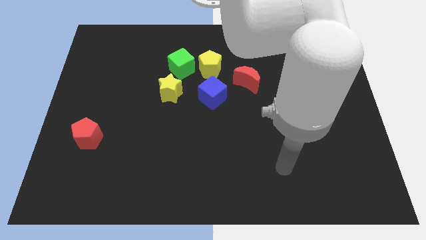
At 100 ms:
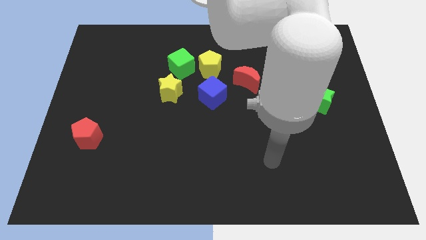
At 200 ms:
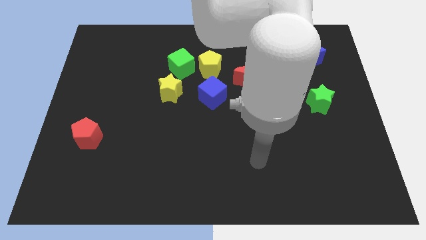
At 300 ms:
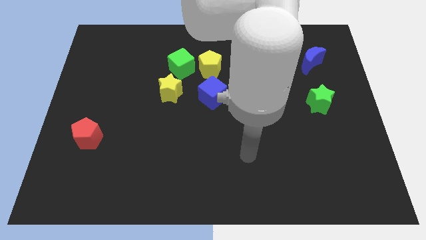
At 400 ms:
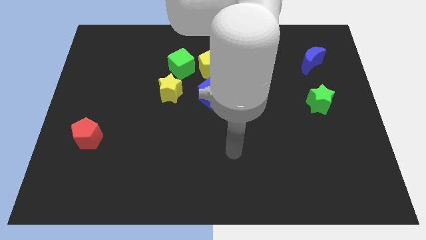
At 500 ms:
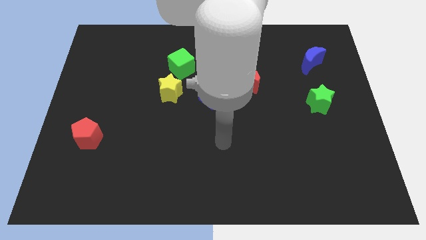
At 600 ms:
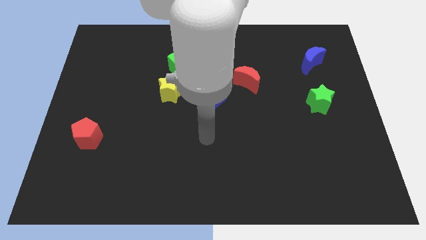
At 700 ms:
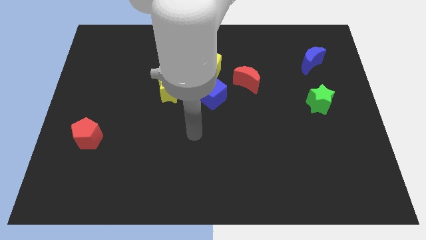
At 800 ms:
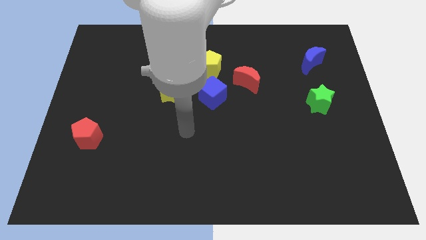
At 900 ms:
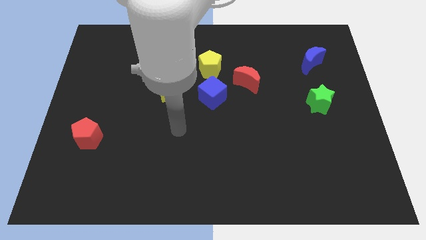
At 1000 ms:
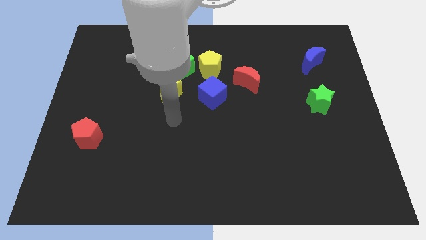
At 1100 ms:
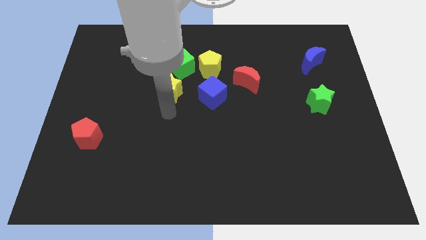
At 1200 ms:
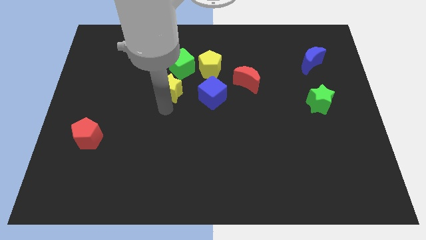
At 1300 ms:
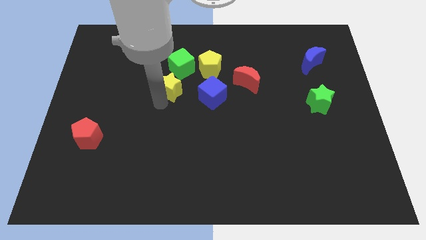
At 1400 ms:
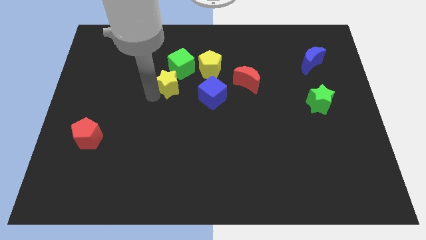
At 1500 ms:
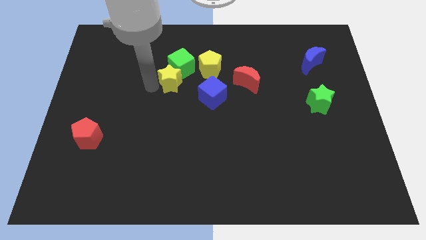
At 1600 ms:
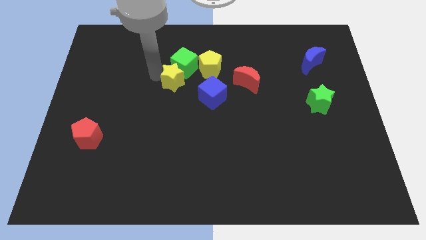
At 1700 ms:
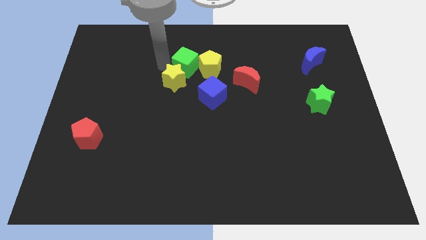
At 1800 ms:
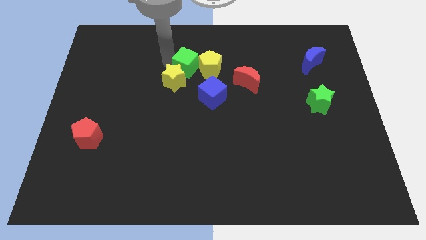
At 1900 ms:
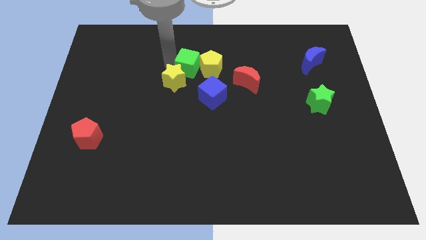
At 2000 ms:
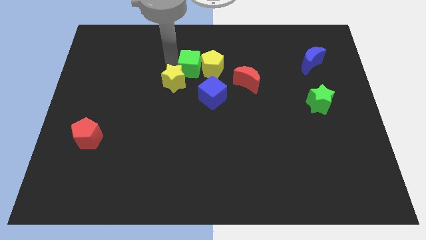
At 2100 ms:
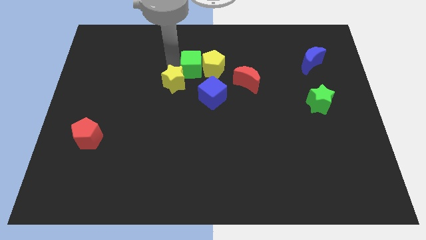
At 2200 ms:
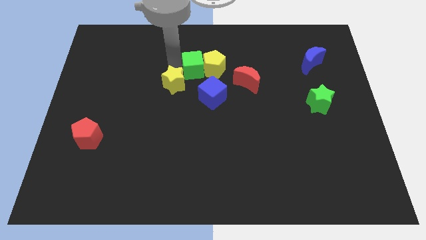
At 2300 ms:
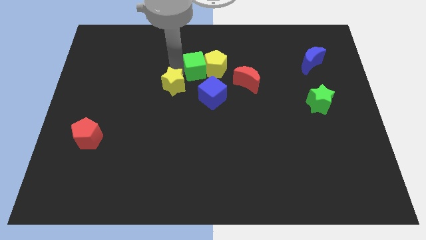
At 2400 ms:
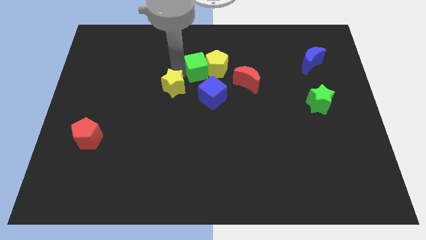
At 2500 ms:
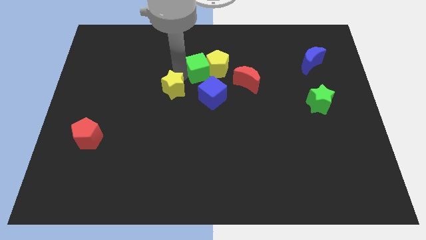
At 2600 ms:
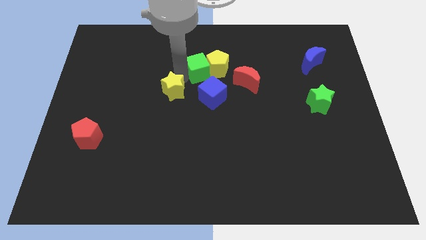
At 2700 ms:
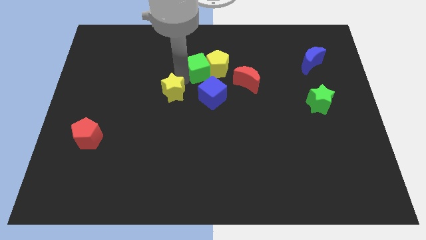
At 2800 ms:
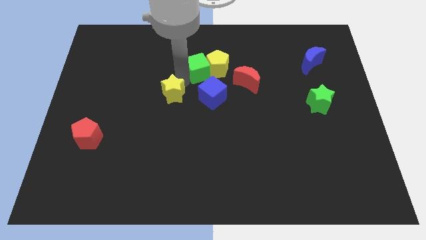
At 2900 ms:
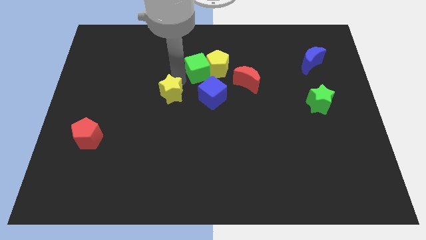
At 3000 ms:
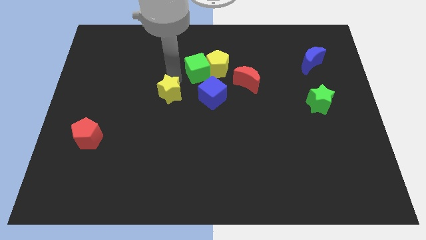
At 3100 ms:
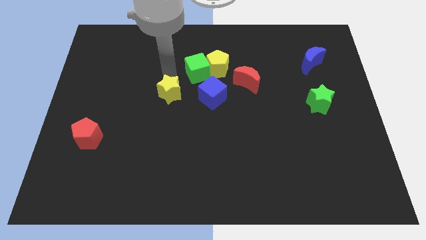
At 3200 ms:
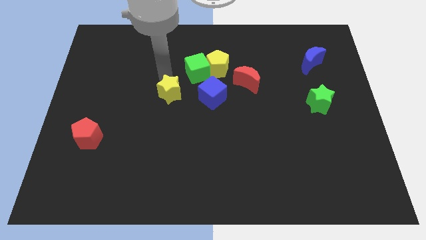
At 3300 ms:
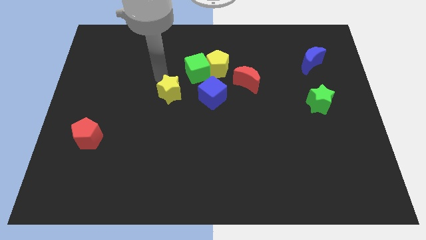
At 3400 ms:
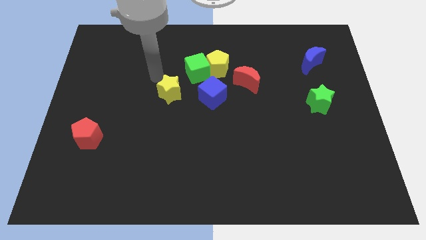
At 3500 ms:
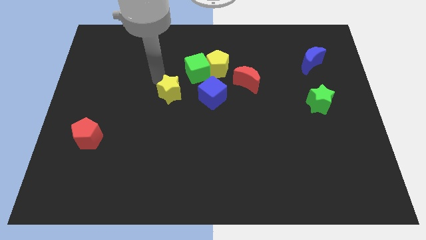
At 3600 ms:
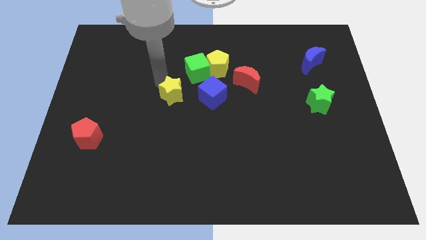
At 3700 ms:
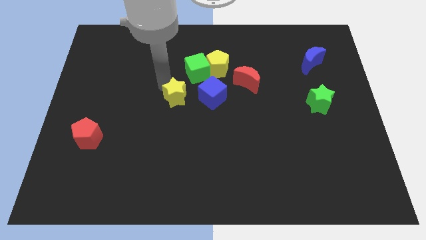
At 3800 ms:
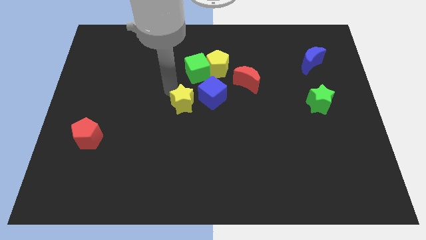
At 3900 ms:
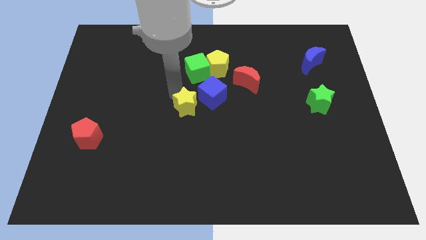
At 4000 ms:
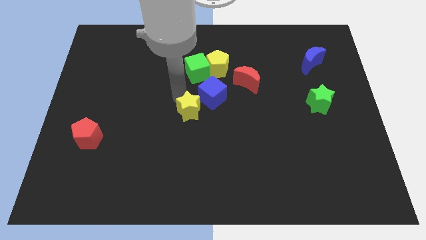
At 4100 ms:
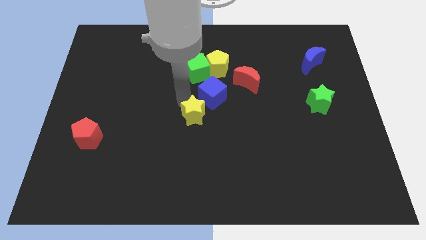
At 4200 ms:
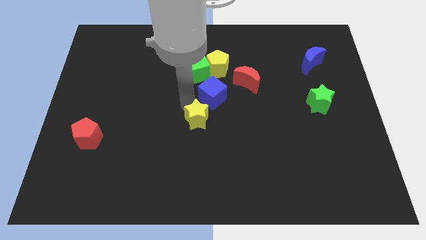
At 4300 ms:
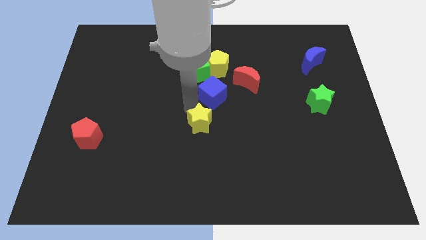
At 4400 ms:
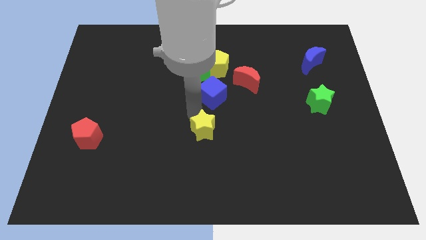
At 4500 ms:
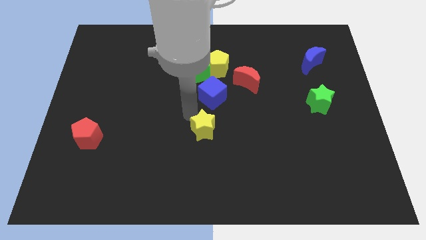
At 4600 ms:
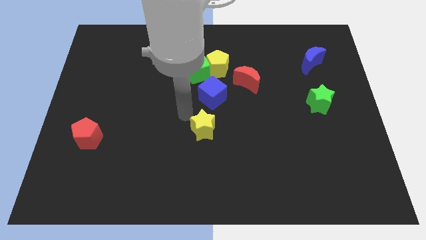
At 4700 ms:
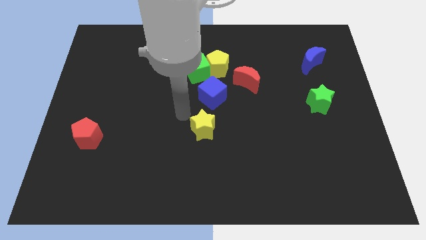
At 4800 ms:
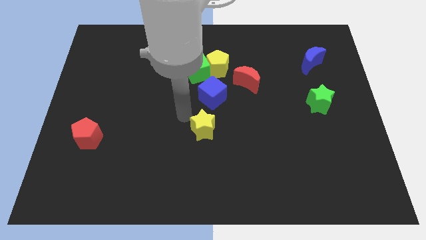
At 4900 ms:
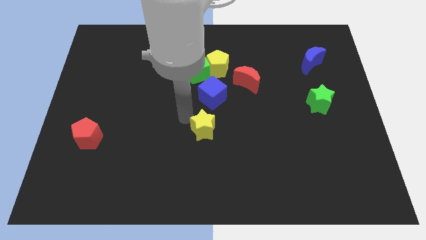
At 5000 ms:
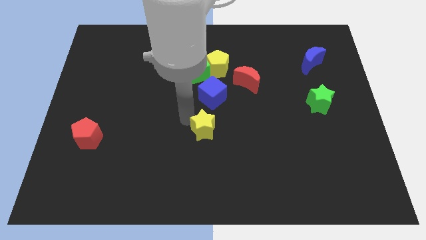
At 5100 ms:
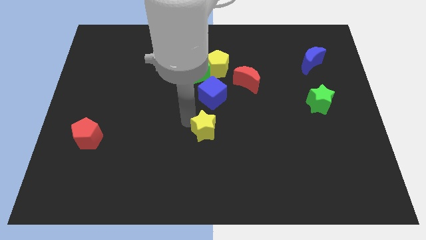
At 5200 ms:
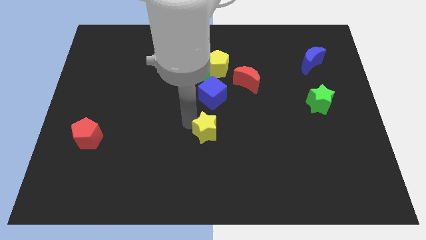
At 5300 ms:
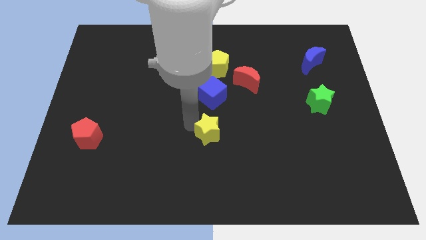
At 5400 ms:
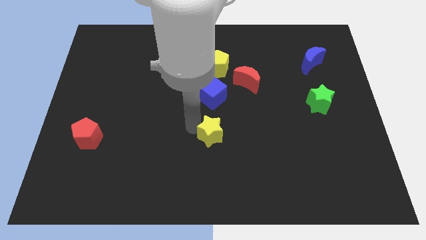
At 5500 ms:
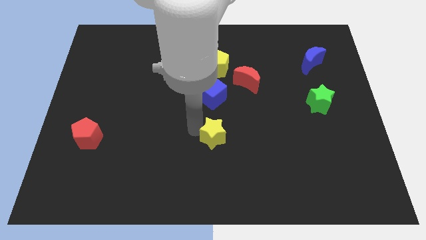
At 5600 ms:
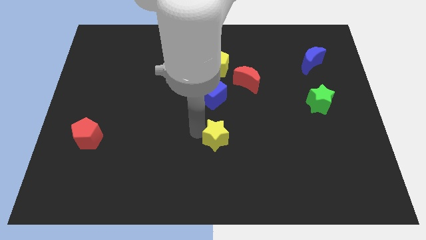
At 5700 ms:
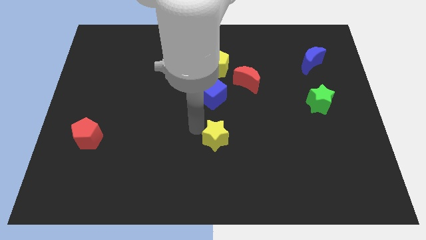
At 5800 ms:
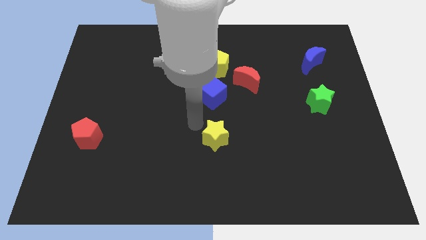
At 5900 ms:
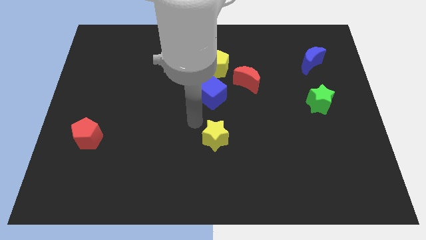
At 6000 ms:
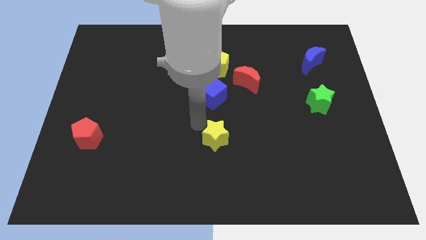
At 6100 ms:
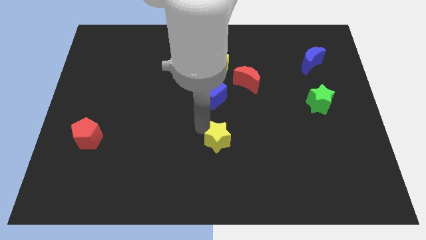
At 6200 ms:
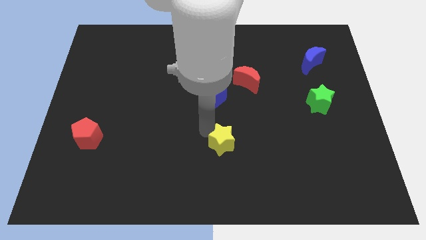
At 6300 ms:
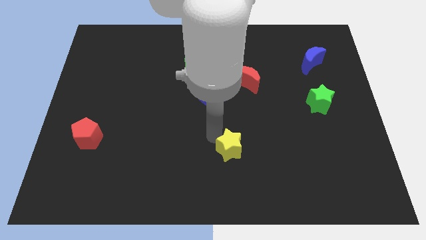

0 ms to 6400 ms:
push the yellow star down and right

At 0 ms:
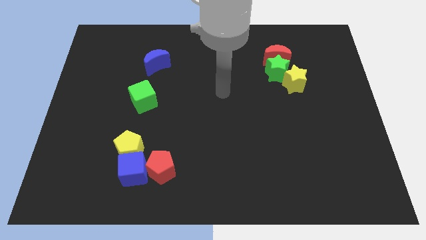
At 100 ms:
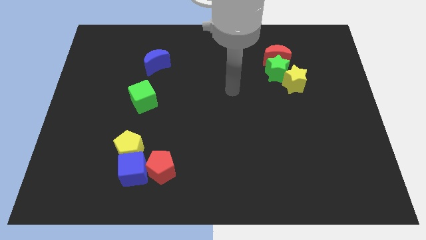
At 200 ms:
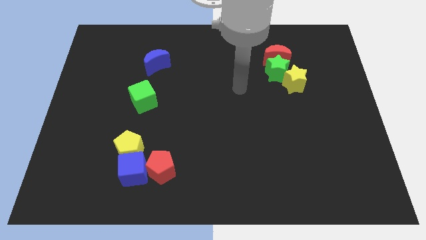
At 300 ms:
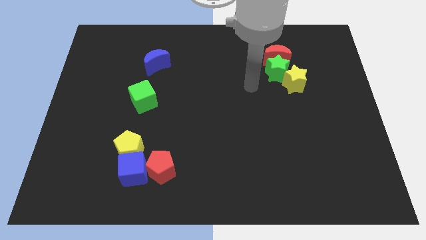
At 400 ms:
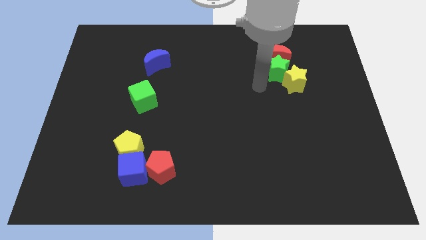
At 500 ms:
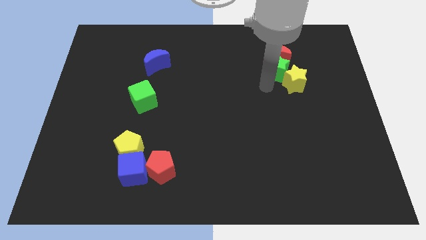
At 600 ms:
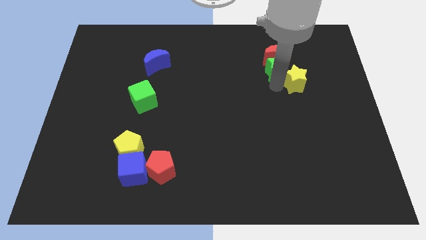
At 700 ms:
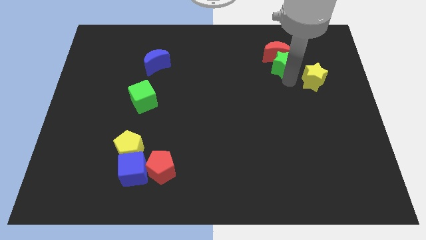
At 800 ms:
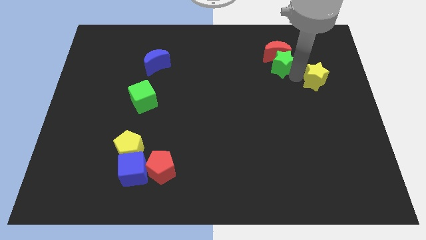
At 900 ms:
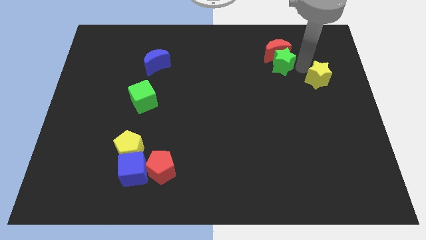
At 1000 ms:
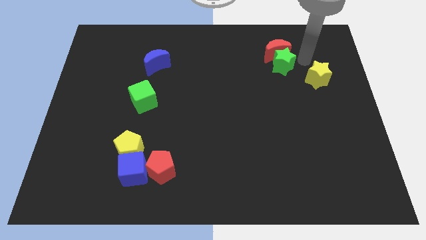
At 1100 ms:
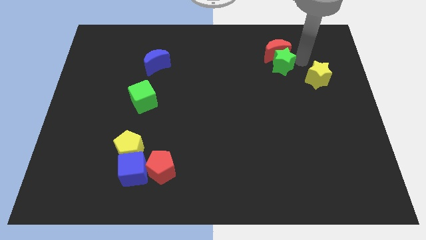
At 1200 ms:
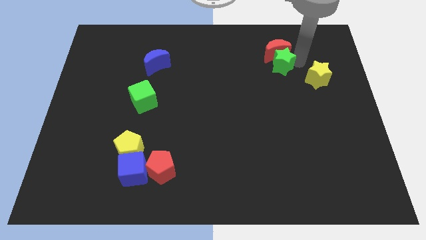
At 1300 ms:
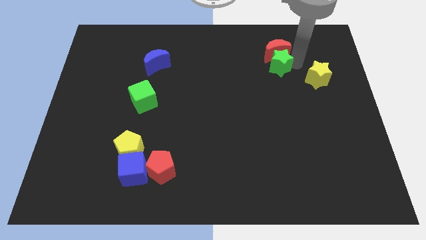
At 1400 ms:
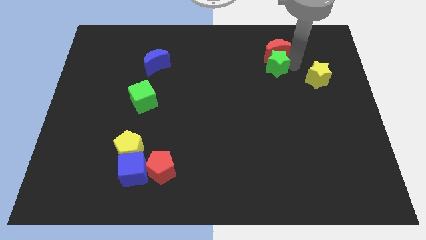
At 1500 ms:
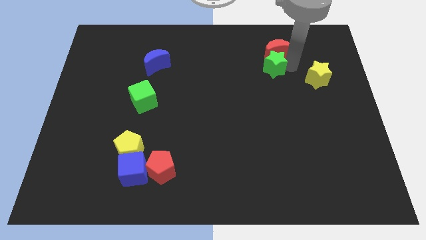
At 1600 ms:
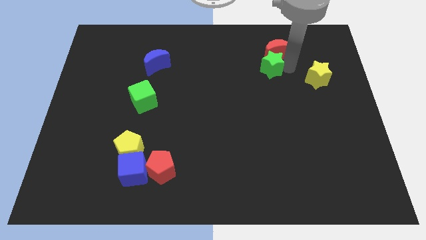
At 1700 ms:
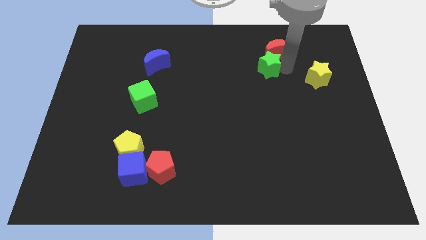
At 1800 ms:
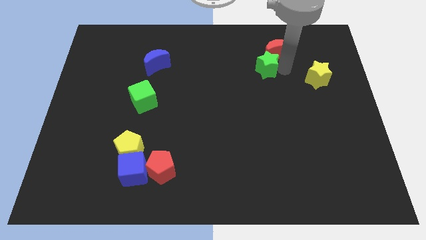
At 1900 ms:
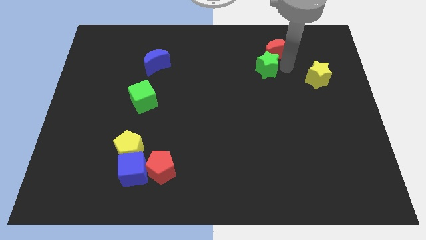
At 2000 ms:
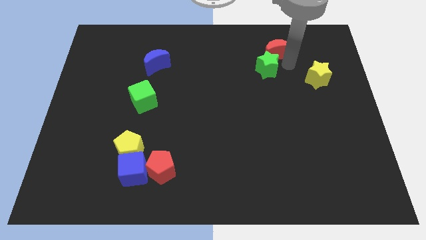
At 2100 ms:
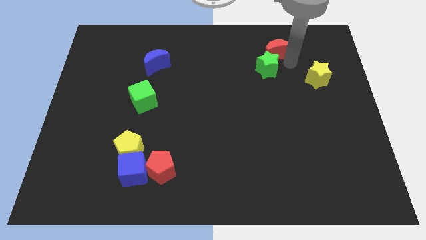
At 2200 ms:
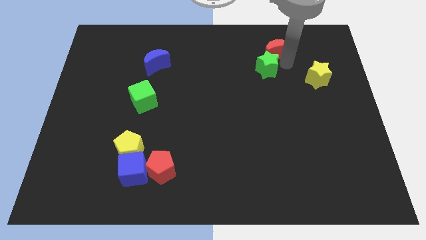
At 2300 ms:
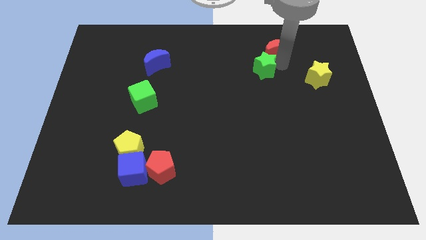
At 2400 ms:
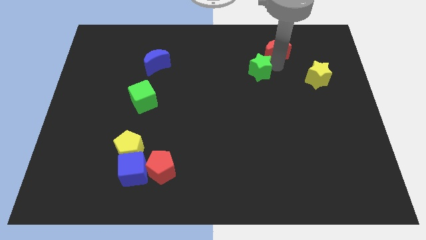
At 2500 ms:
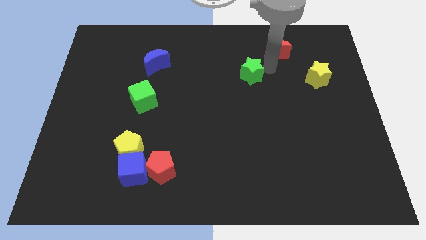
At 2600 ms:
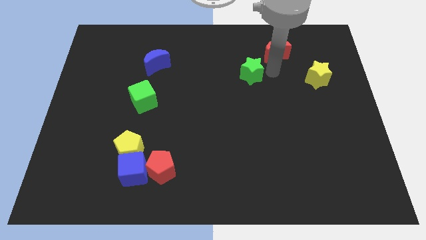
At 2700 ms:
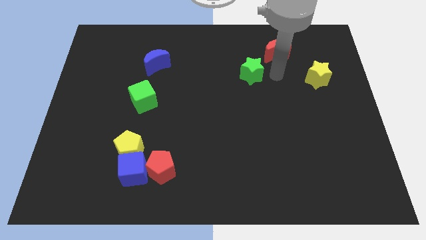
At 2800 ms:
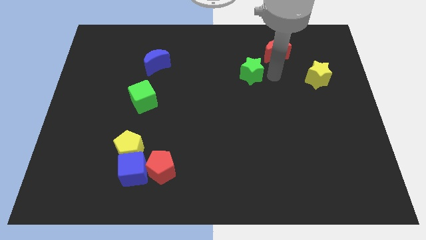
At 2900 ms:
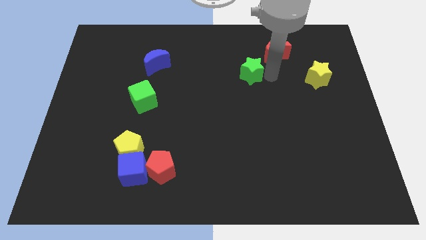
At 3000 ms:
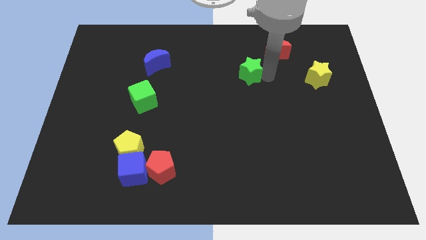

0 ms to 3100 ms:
slightly push the green star to the left
